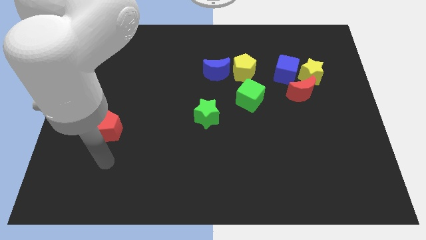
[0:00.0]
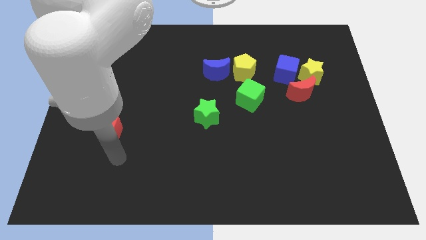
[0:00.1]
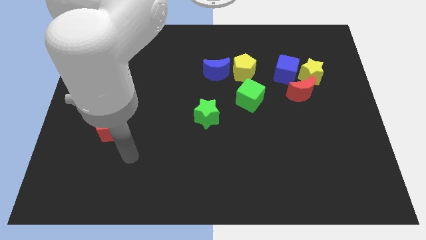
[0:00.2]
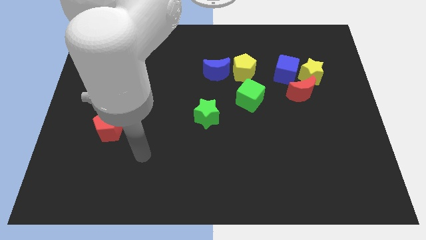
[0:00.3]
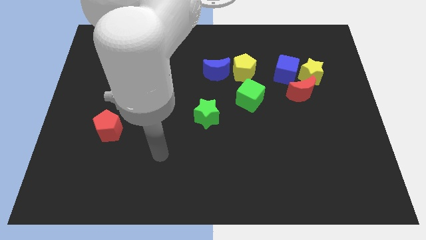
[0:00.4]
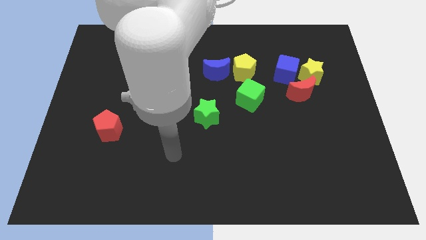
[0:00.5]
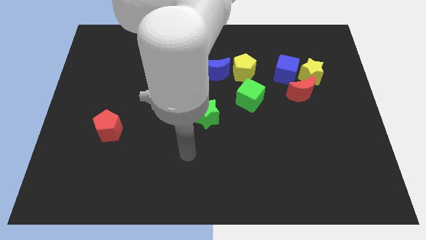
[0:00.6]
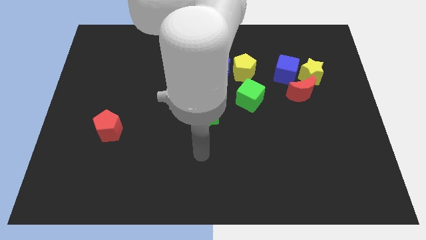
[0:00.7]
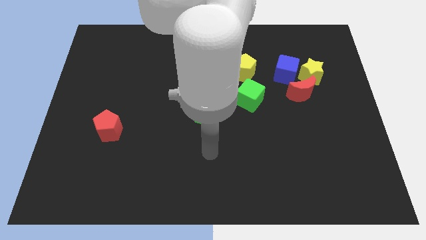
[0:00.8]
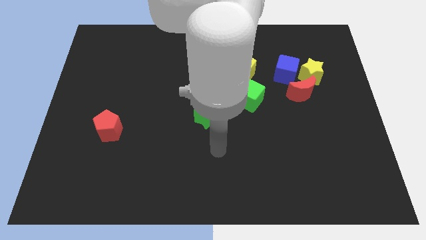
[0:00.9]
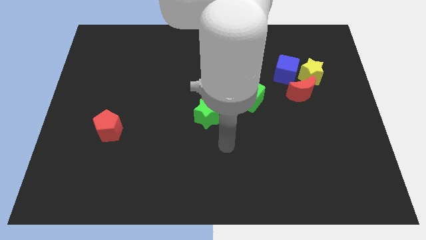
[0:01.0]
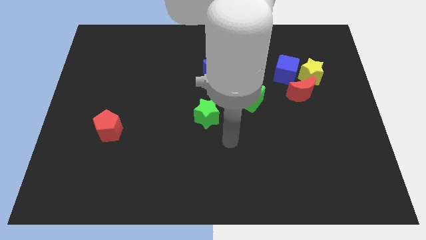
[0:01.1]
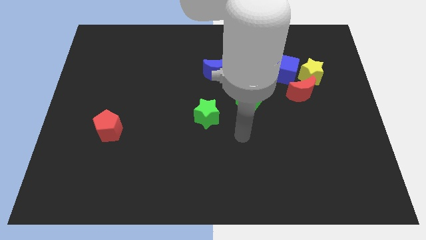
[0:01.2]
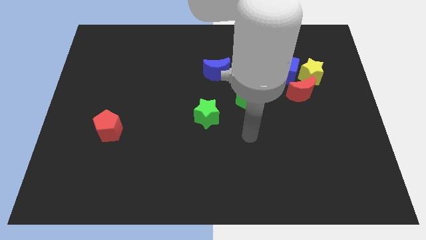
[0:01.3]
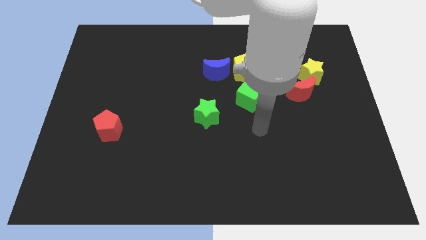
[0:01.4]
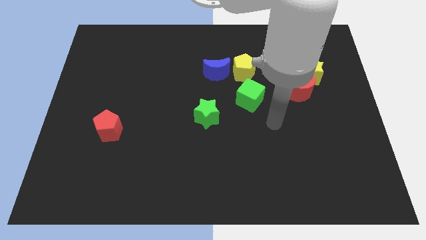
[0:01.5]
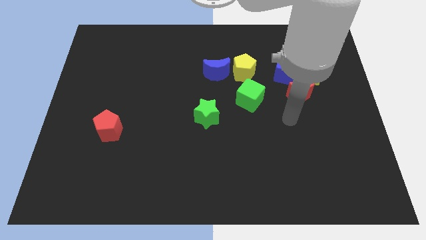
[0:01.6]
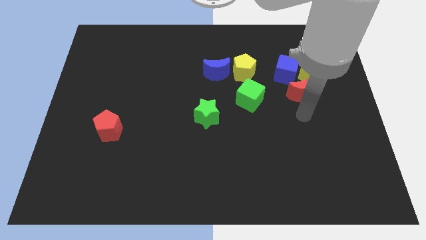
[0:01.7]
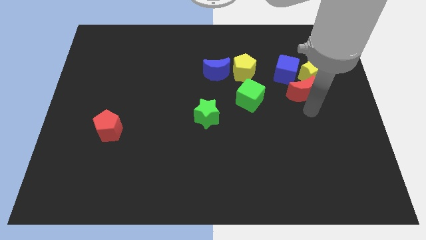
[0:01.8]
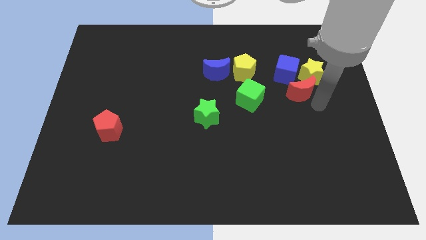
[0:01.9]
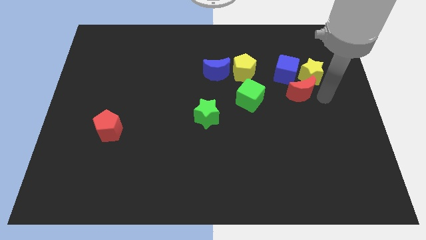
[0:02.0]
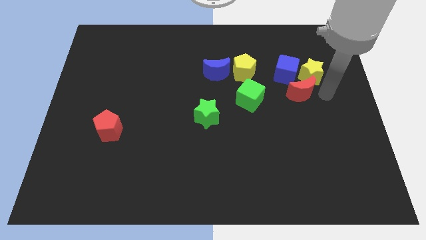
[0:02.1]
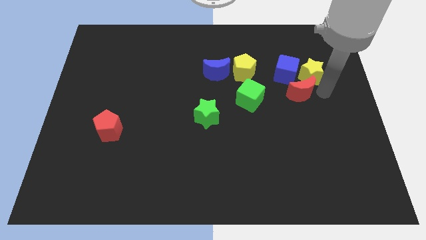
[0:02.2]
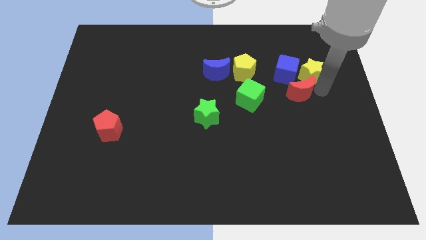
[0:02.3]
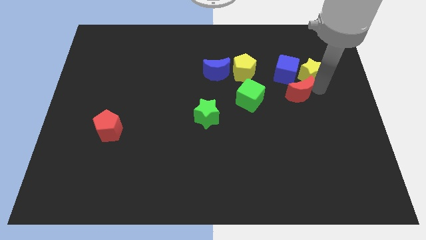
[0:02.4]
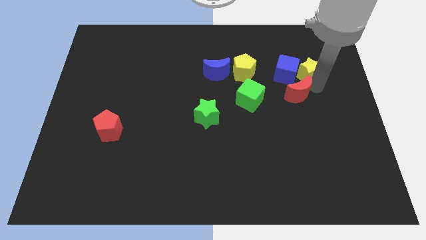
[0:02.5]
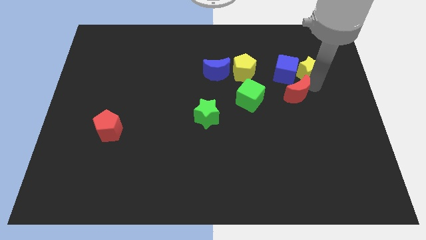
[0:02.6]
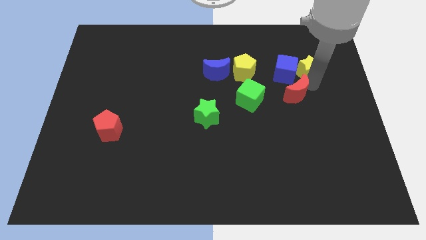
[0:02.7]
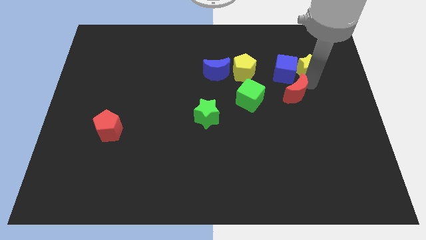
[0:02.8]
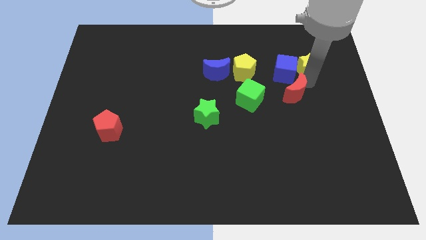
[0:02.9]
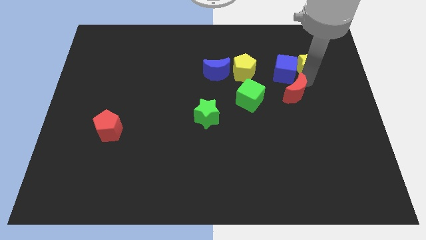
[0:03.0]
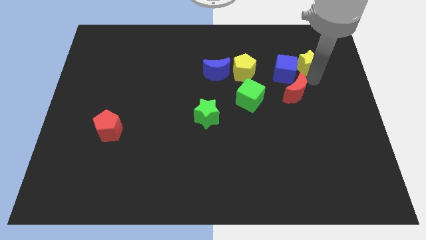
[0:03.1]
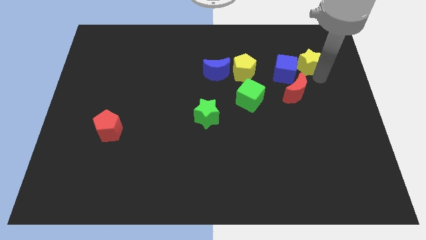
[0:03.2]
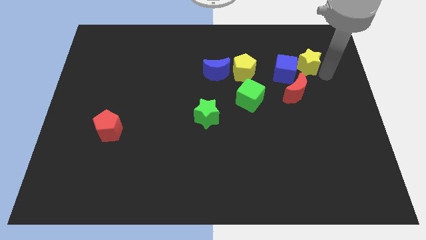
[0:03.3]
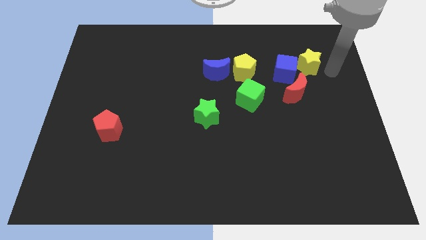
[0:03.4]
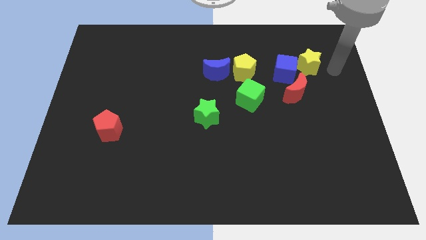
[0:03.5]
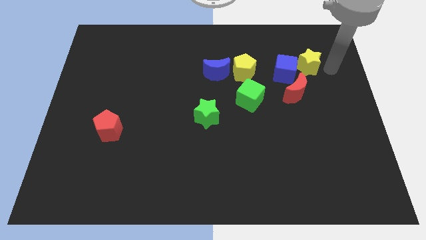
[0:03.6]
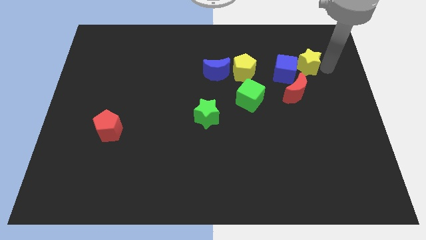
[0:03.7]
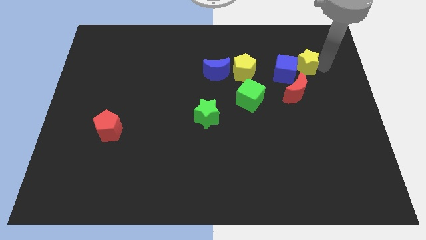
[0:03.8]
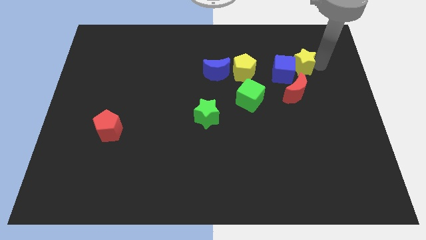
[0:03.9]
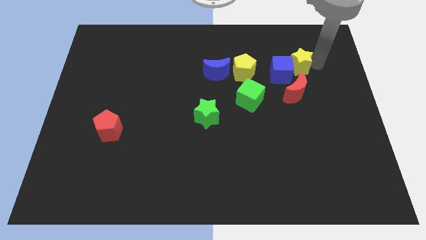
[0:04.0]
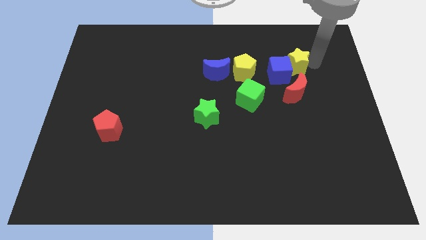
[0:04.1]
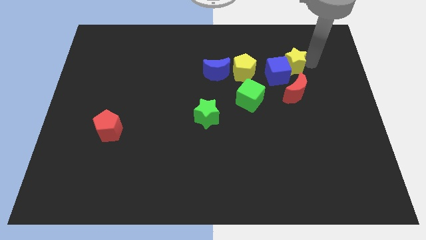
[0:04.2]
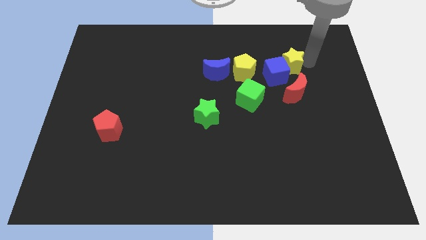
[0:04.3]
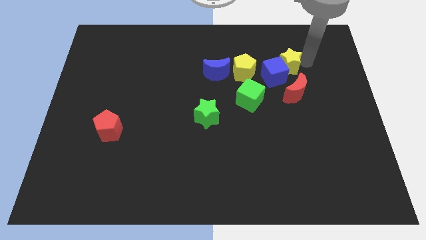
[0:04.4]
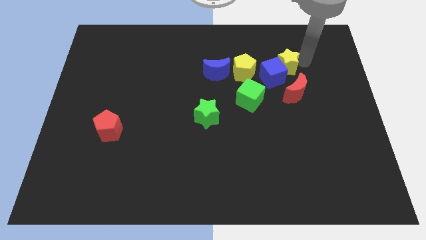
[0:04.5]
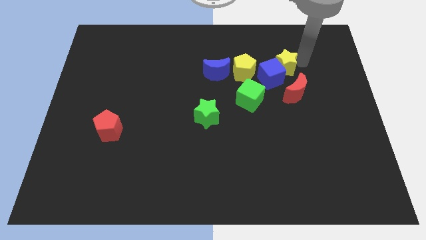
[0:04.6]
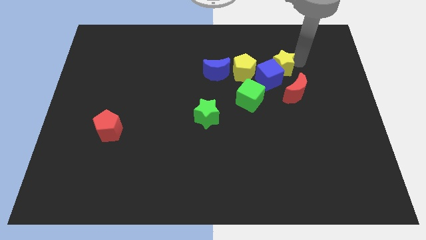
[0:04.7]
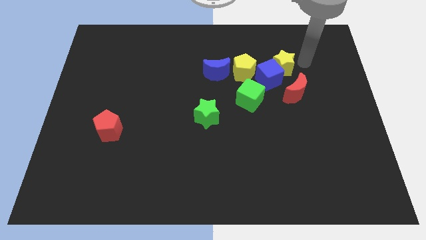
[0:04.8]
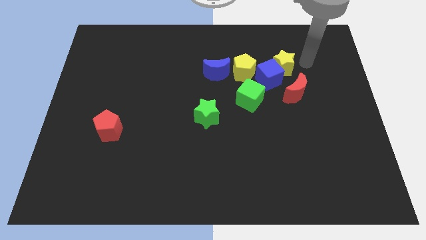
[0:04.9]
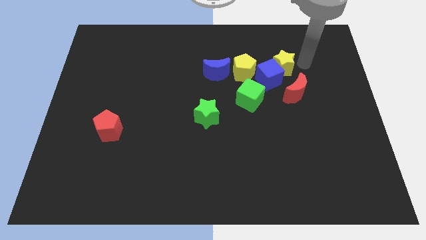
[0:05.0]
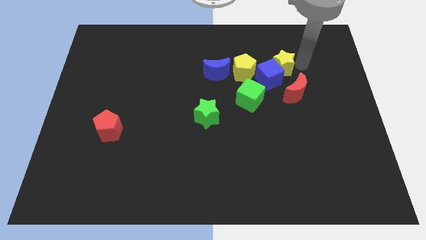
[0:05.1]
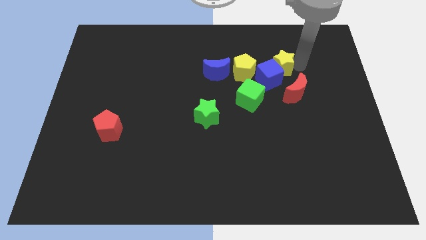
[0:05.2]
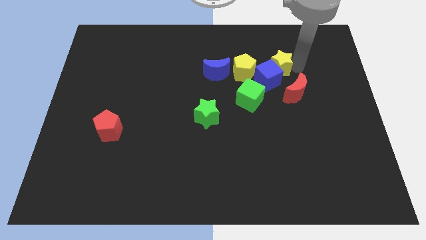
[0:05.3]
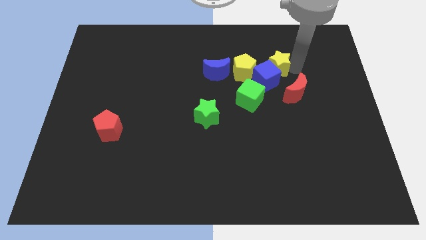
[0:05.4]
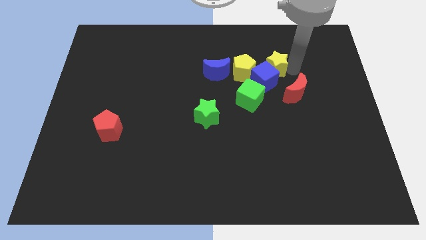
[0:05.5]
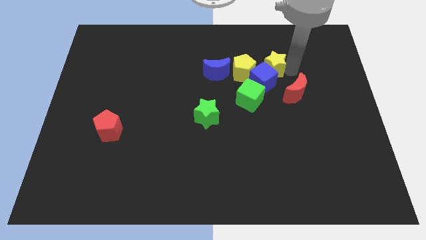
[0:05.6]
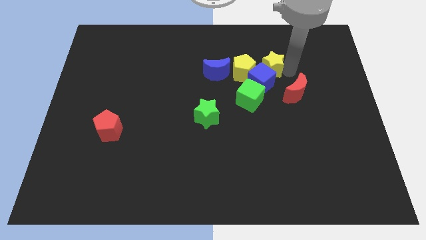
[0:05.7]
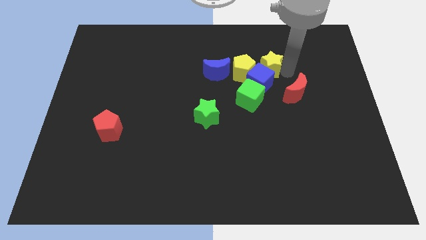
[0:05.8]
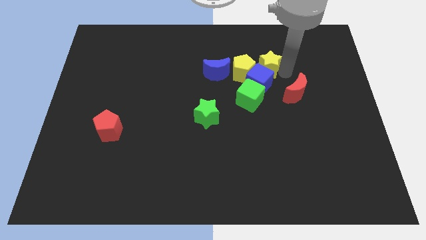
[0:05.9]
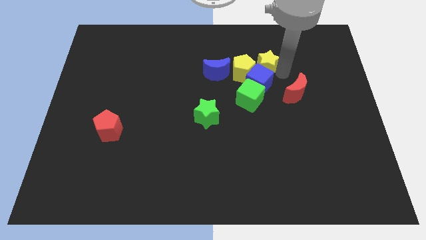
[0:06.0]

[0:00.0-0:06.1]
slide the yellow star to the top of the green cube

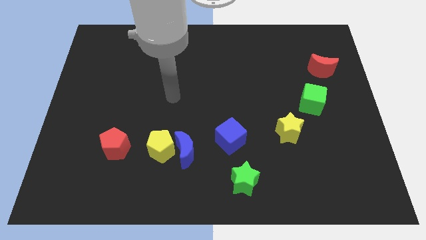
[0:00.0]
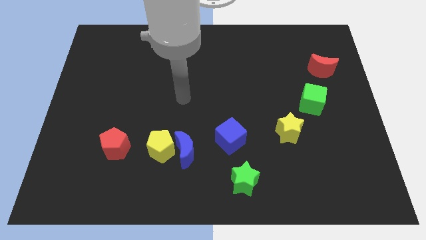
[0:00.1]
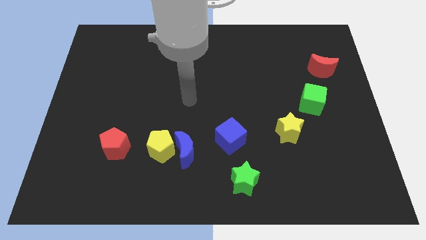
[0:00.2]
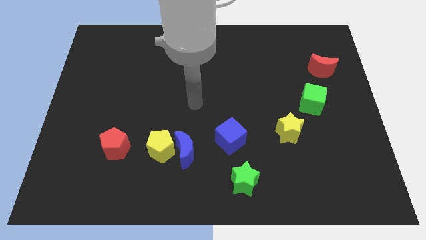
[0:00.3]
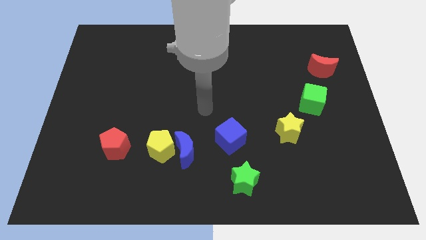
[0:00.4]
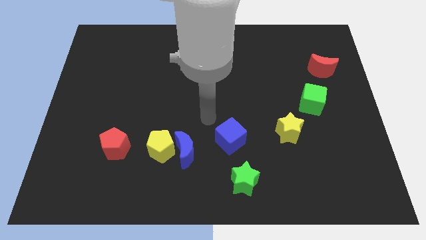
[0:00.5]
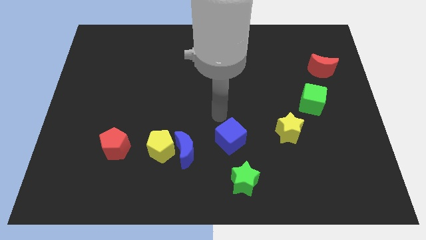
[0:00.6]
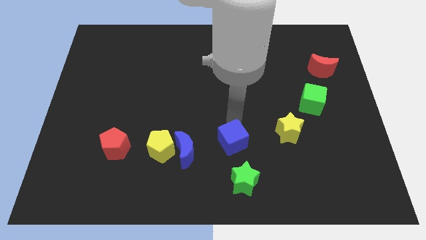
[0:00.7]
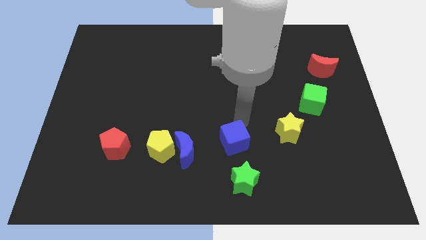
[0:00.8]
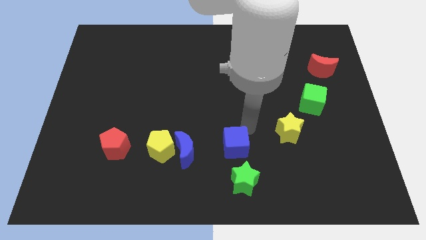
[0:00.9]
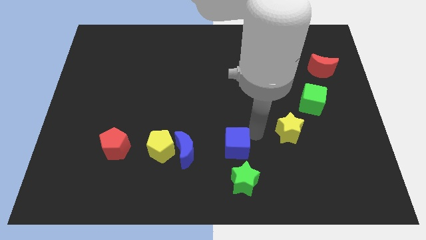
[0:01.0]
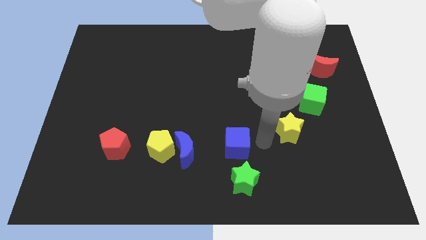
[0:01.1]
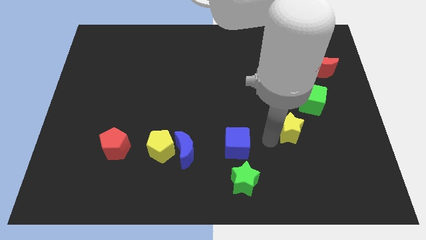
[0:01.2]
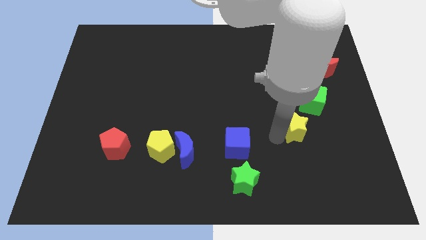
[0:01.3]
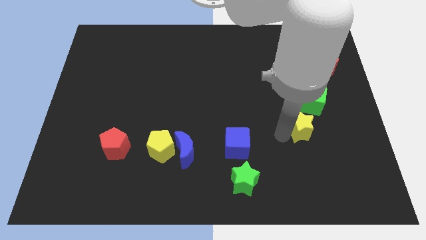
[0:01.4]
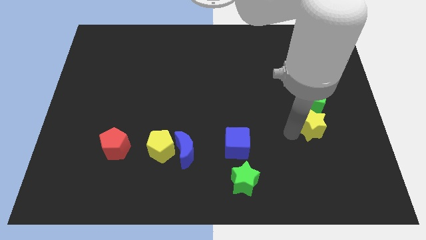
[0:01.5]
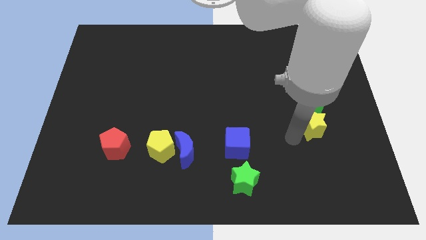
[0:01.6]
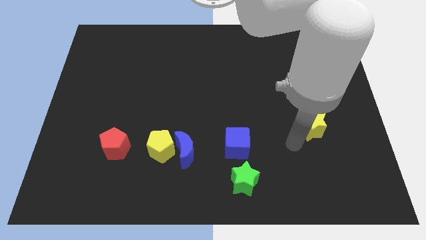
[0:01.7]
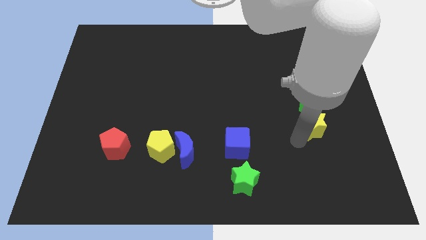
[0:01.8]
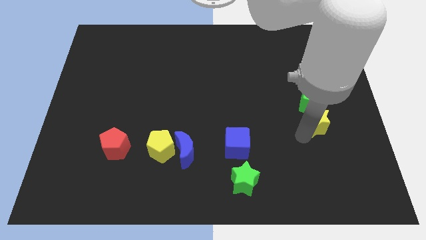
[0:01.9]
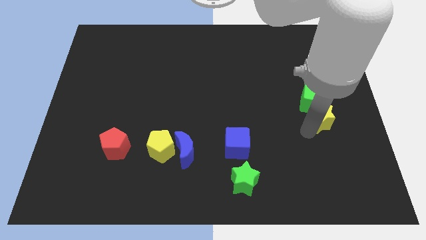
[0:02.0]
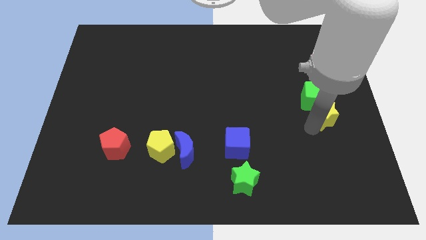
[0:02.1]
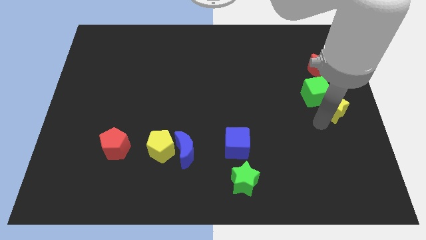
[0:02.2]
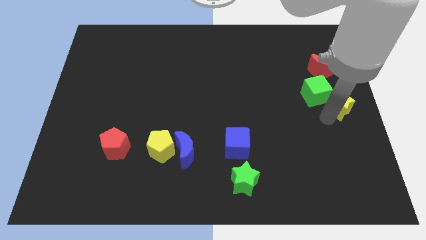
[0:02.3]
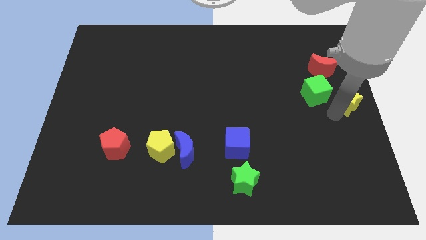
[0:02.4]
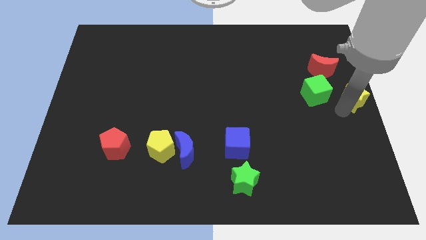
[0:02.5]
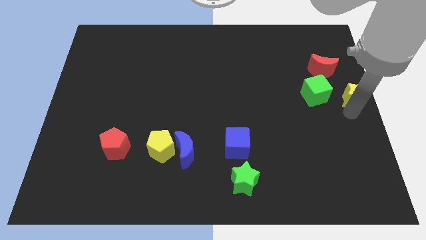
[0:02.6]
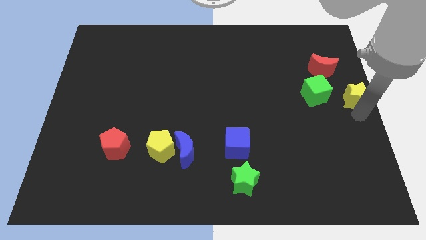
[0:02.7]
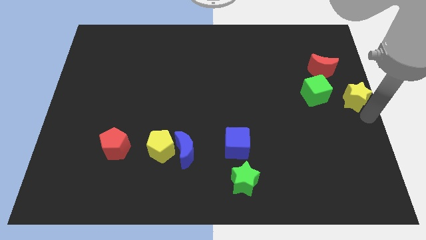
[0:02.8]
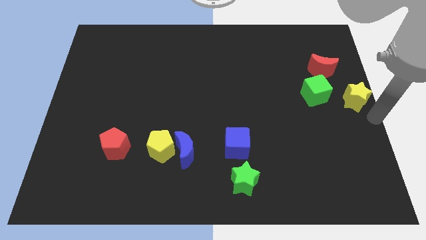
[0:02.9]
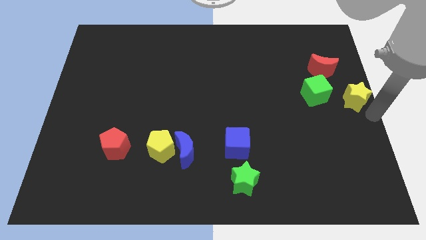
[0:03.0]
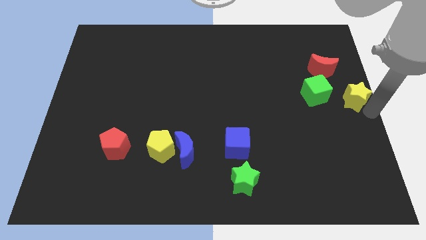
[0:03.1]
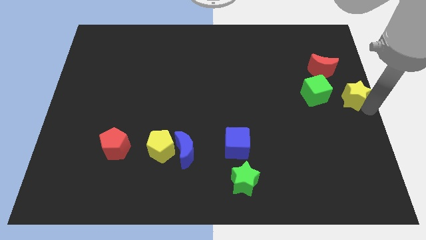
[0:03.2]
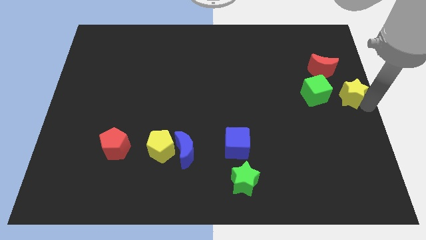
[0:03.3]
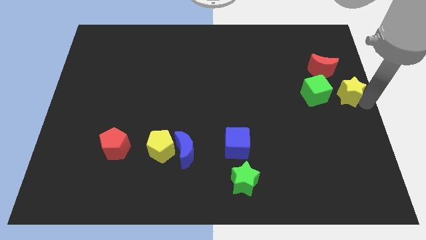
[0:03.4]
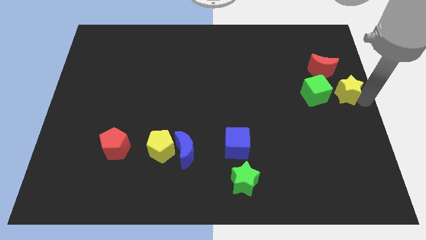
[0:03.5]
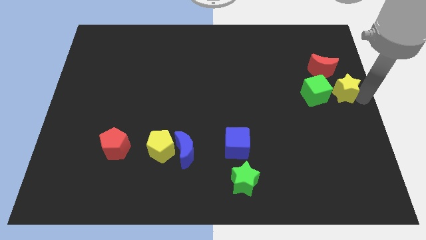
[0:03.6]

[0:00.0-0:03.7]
slide the yellow star diagonally up and to the right of the green cube
